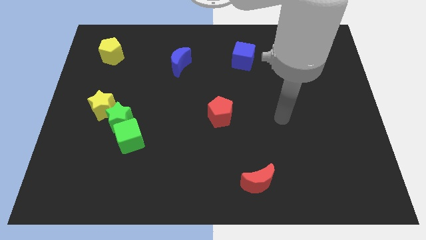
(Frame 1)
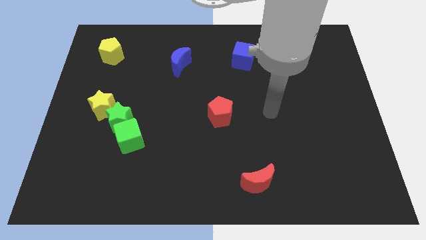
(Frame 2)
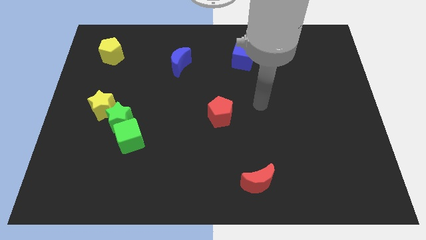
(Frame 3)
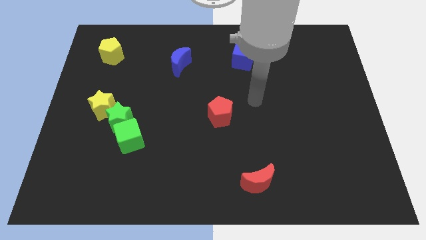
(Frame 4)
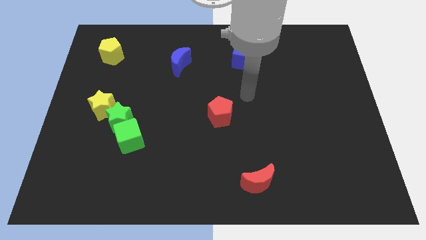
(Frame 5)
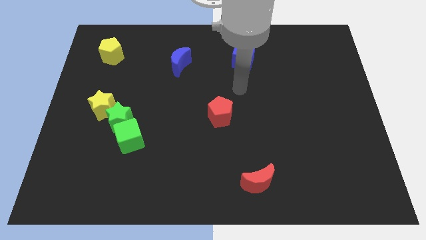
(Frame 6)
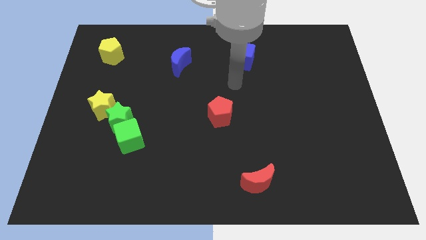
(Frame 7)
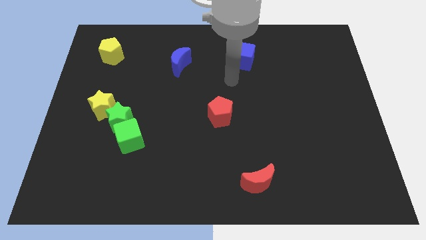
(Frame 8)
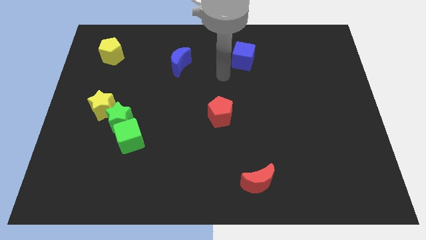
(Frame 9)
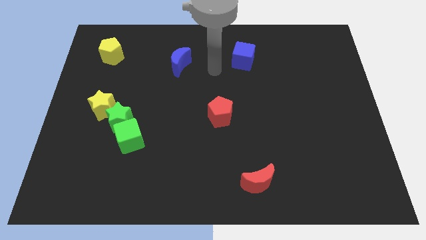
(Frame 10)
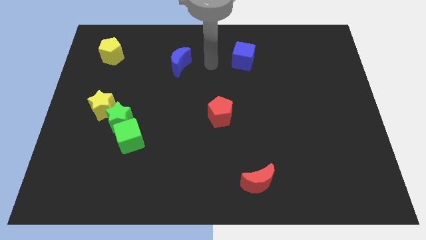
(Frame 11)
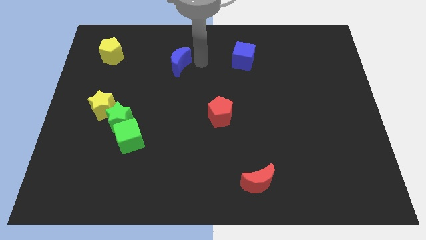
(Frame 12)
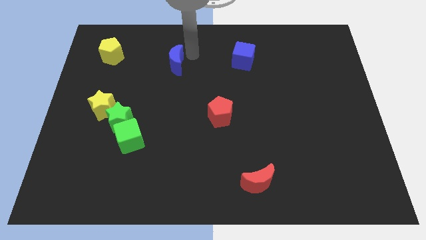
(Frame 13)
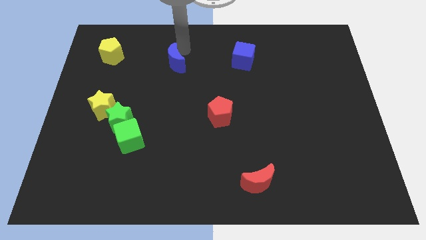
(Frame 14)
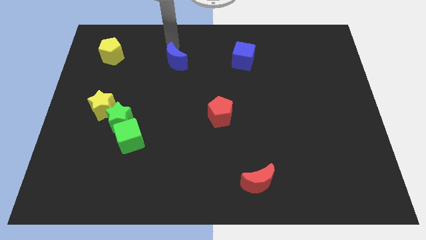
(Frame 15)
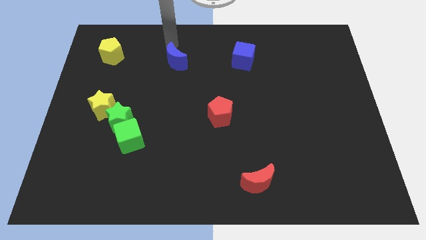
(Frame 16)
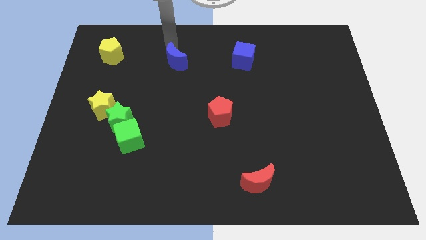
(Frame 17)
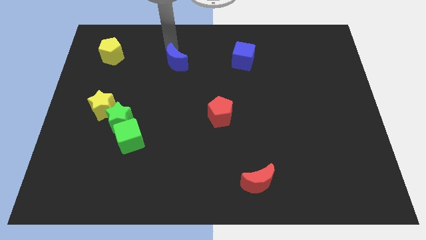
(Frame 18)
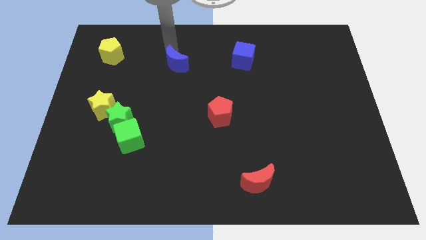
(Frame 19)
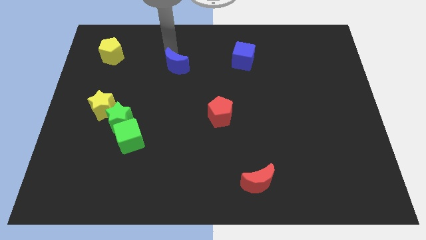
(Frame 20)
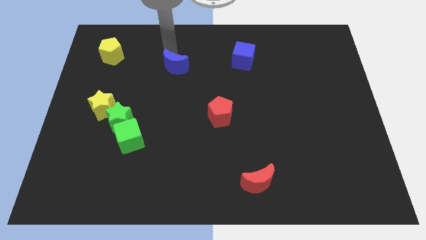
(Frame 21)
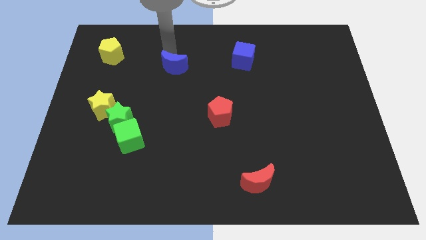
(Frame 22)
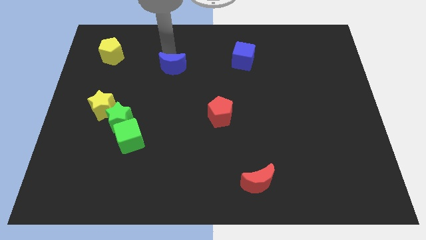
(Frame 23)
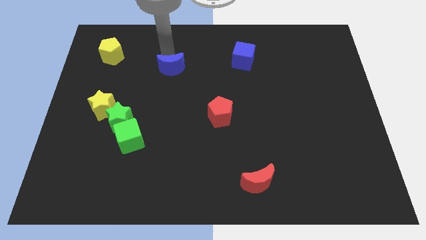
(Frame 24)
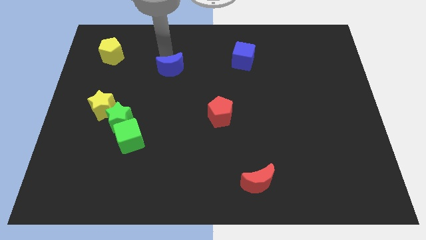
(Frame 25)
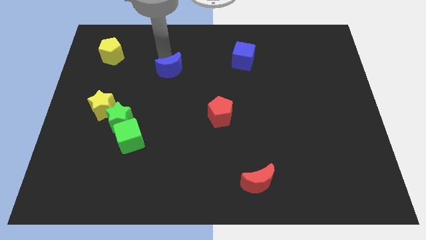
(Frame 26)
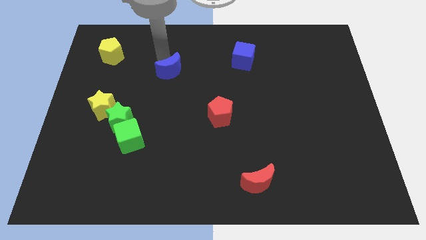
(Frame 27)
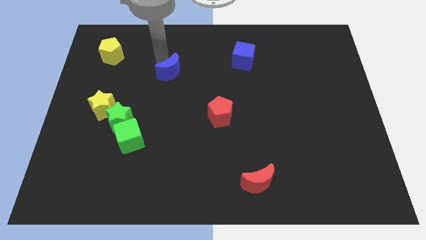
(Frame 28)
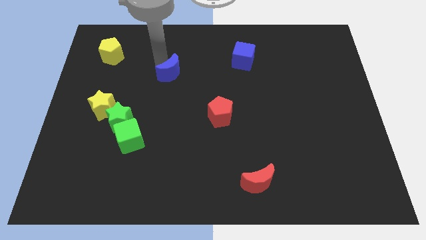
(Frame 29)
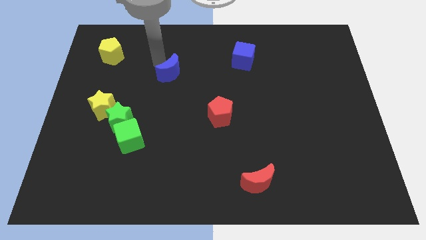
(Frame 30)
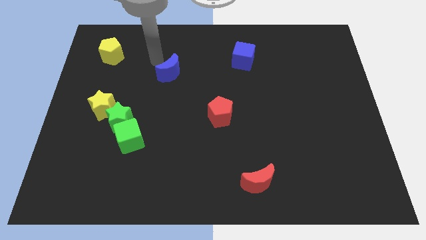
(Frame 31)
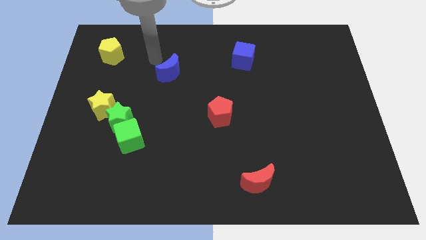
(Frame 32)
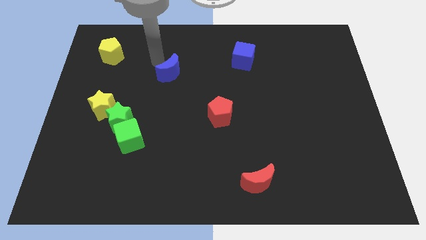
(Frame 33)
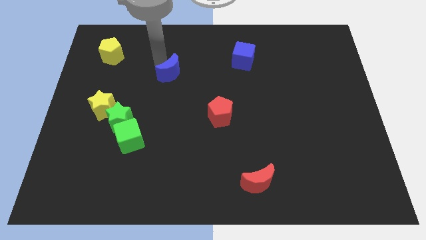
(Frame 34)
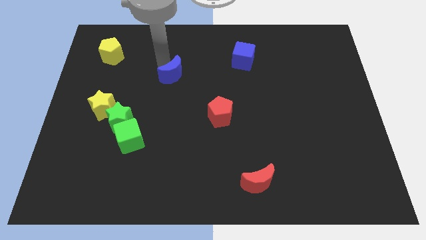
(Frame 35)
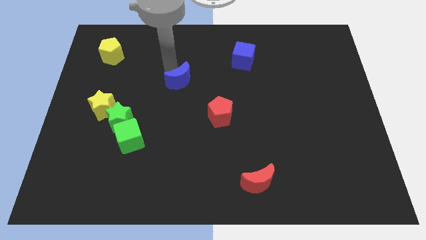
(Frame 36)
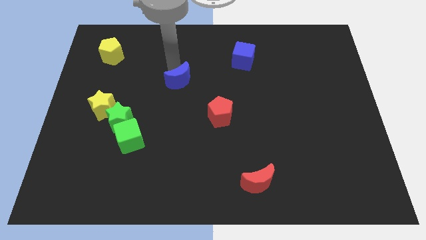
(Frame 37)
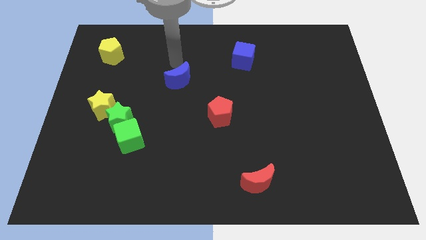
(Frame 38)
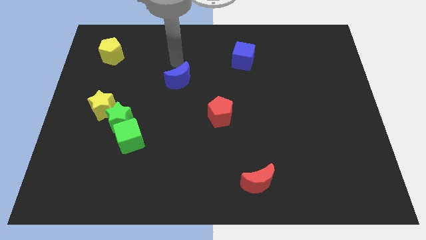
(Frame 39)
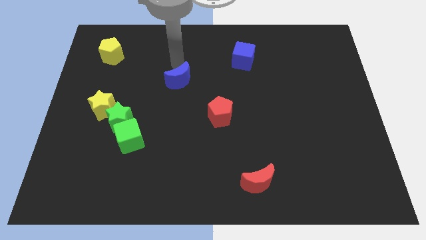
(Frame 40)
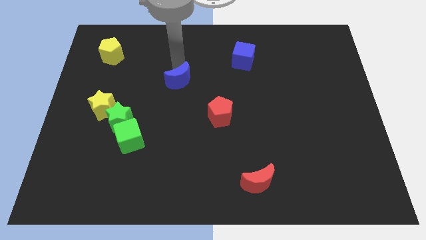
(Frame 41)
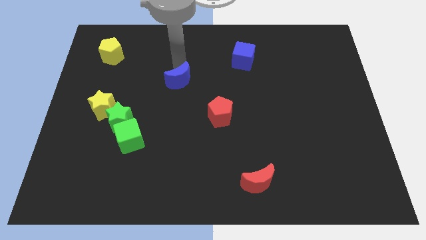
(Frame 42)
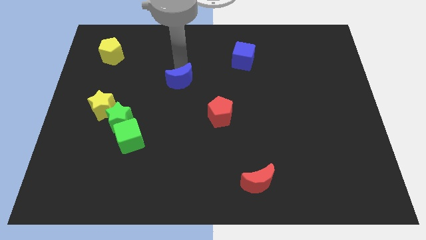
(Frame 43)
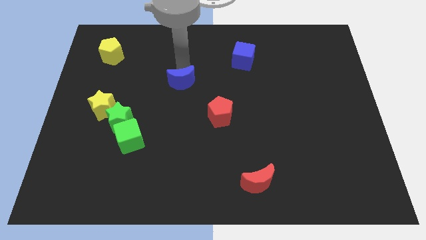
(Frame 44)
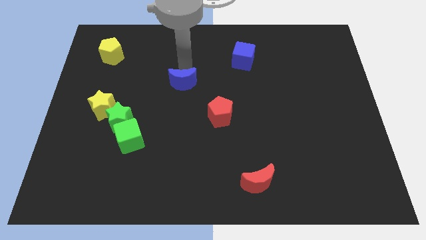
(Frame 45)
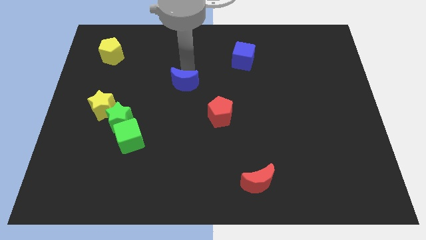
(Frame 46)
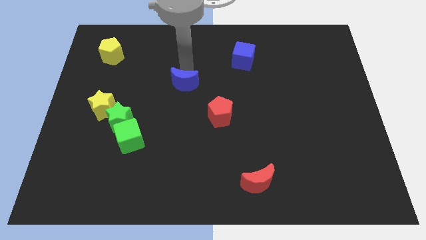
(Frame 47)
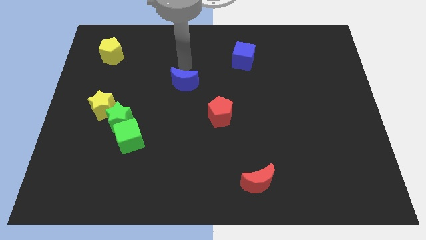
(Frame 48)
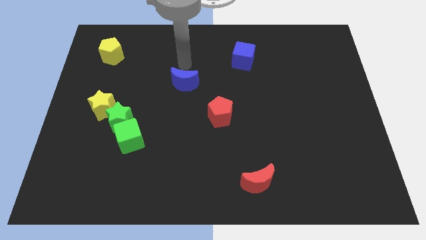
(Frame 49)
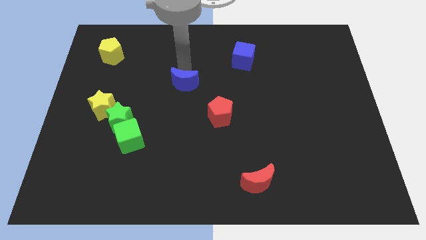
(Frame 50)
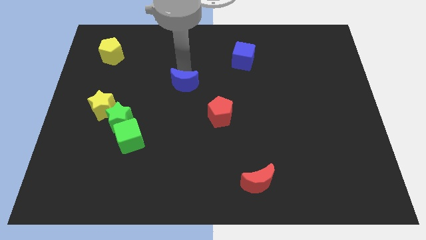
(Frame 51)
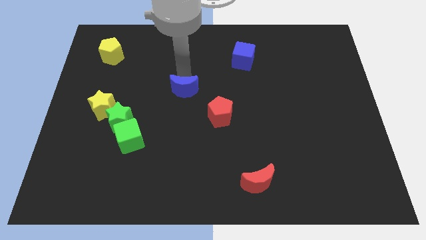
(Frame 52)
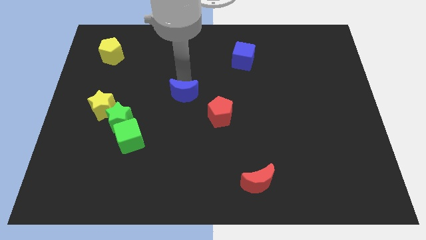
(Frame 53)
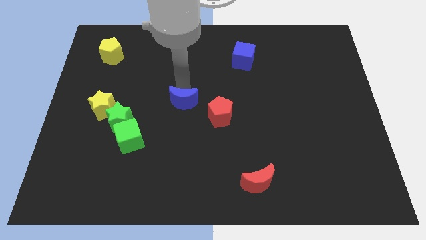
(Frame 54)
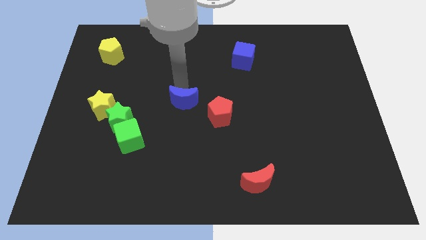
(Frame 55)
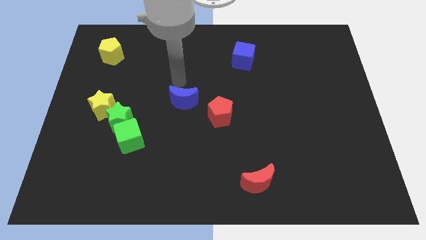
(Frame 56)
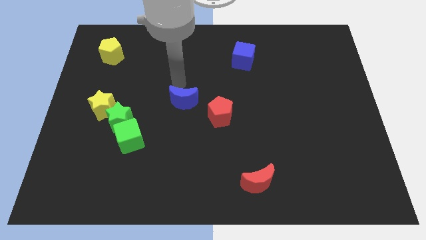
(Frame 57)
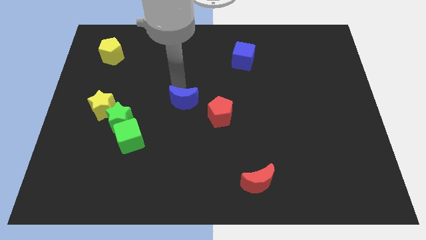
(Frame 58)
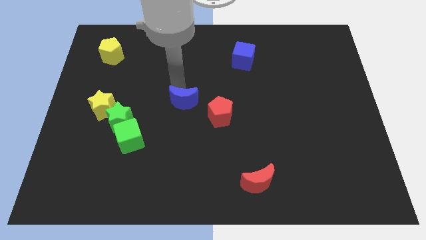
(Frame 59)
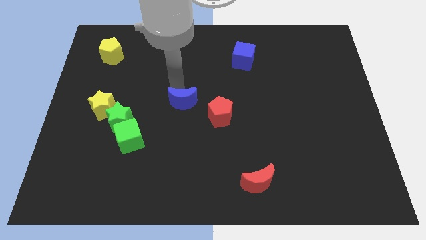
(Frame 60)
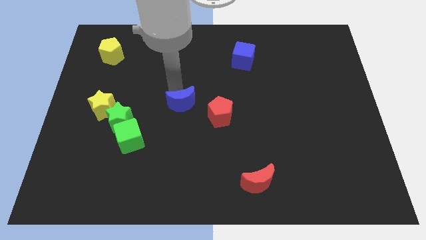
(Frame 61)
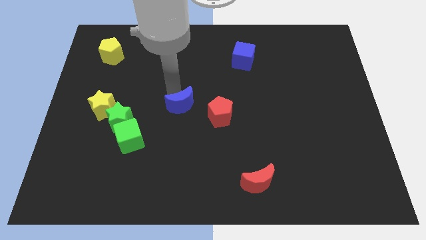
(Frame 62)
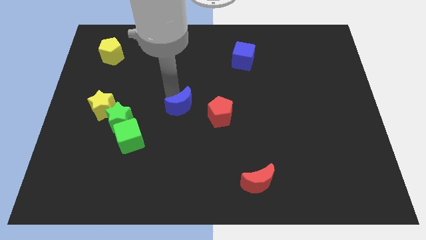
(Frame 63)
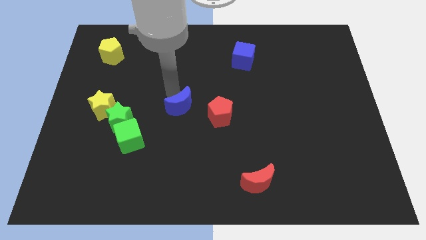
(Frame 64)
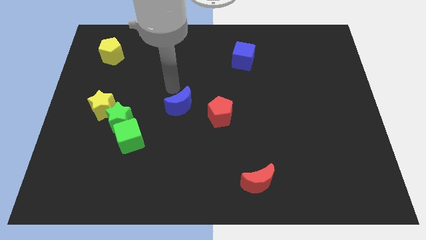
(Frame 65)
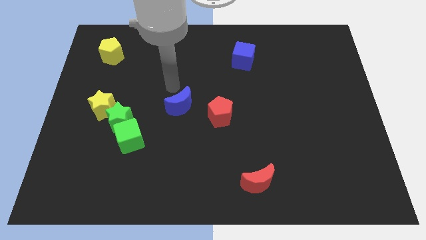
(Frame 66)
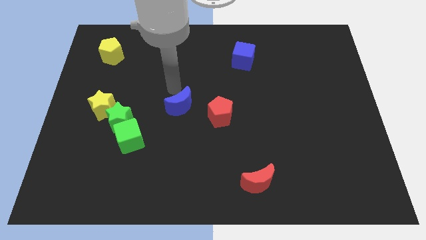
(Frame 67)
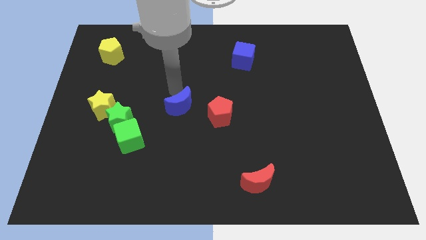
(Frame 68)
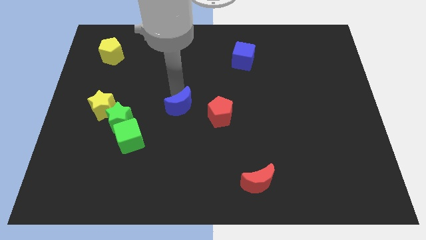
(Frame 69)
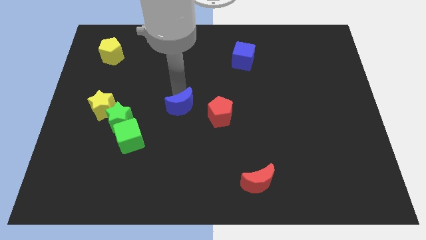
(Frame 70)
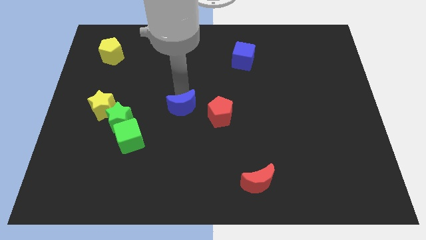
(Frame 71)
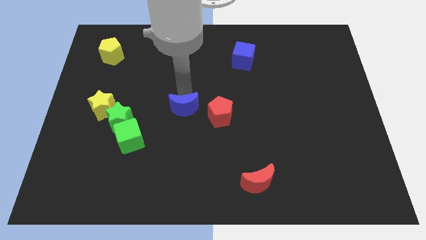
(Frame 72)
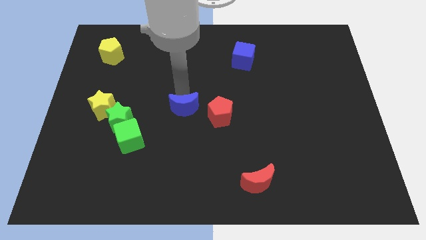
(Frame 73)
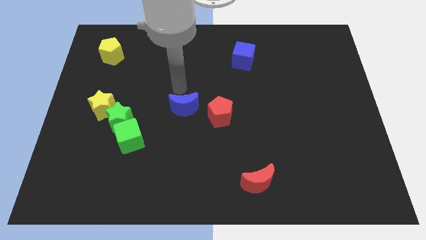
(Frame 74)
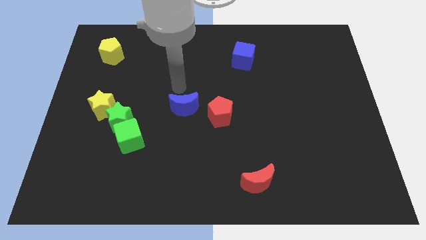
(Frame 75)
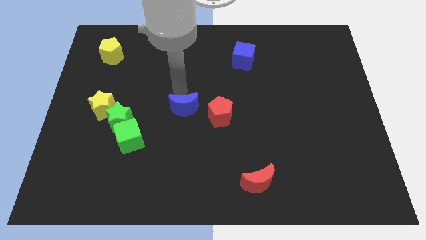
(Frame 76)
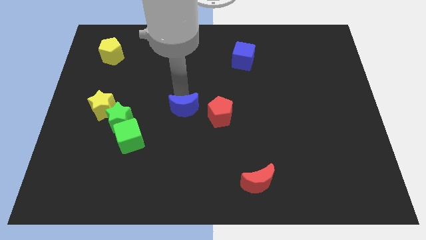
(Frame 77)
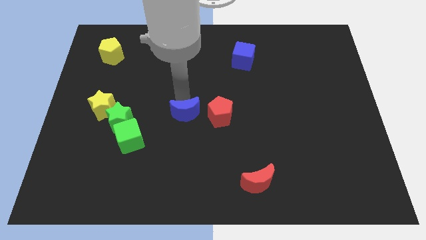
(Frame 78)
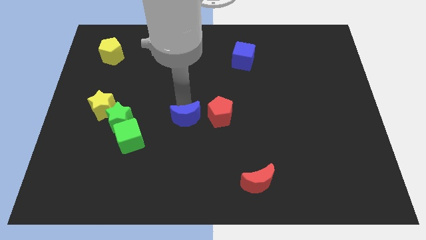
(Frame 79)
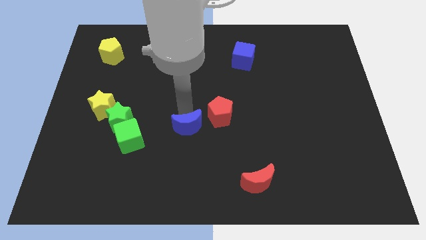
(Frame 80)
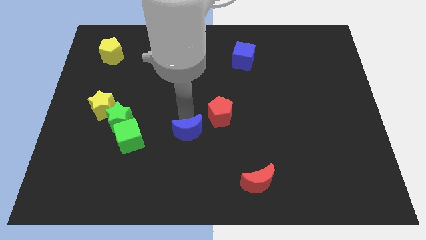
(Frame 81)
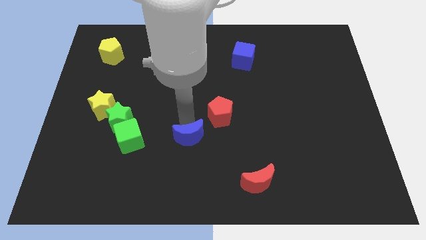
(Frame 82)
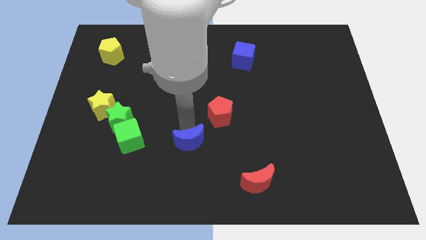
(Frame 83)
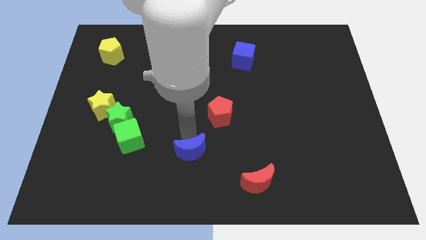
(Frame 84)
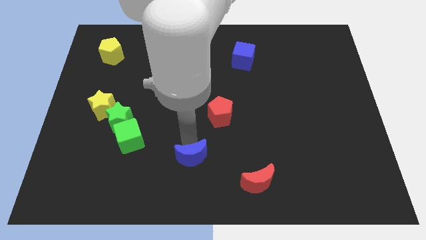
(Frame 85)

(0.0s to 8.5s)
put the blue moon to the bottom side
